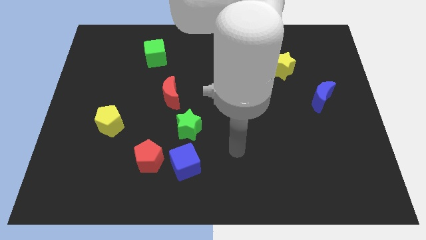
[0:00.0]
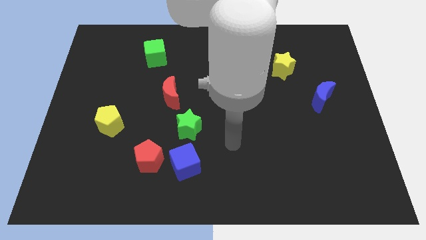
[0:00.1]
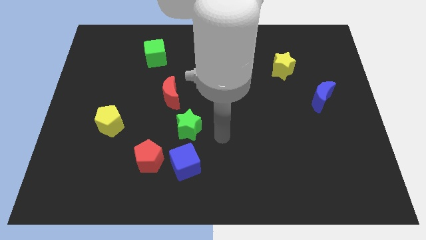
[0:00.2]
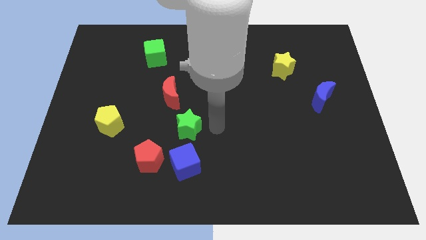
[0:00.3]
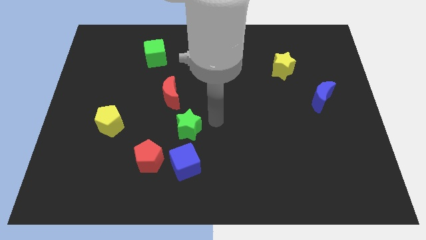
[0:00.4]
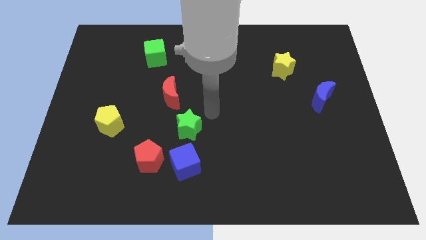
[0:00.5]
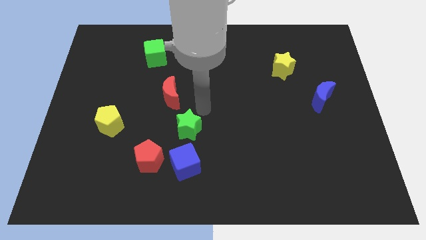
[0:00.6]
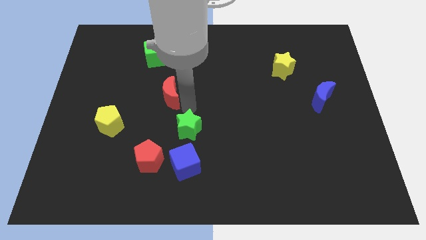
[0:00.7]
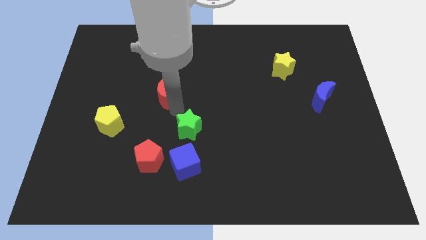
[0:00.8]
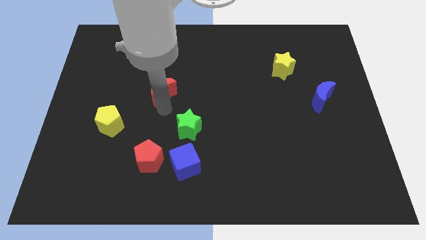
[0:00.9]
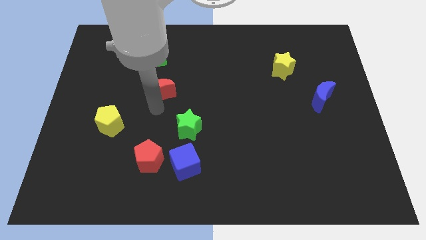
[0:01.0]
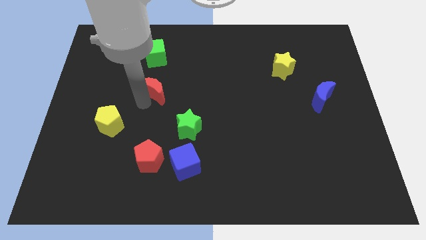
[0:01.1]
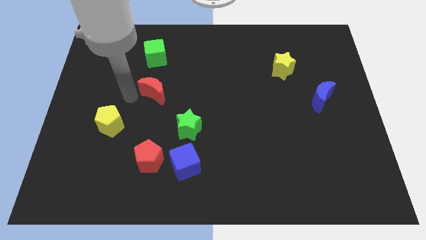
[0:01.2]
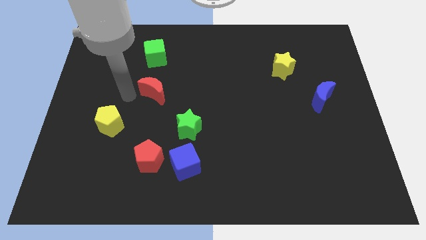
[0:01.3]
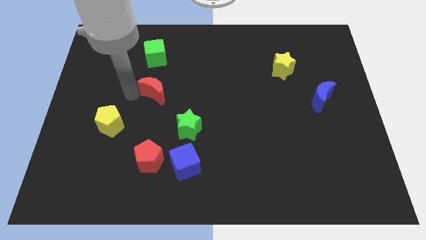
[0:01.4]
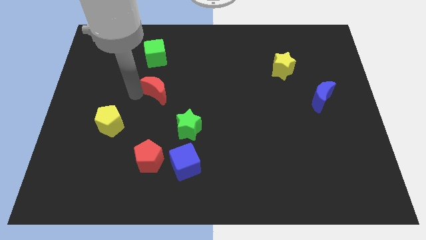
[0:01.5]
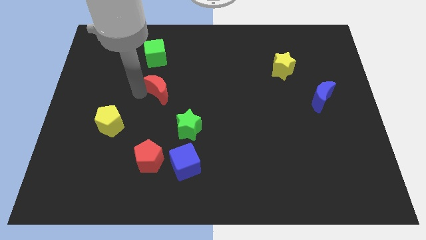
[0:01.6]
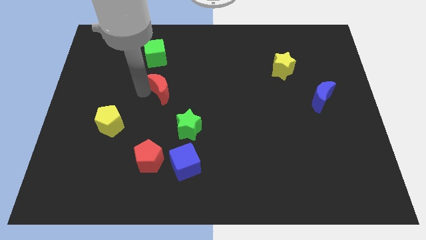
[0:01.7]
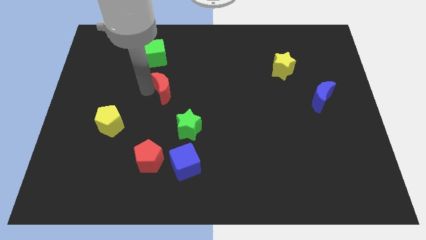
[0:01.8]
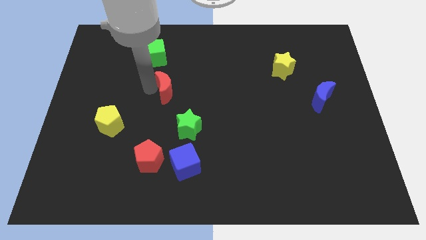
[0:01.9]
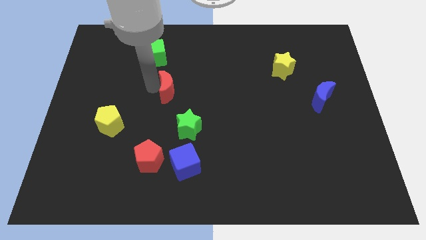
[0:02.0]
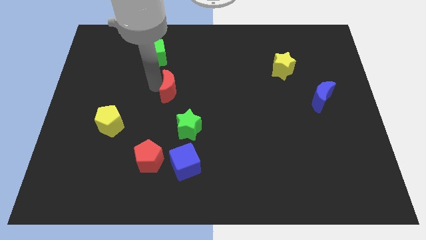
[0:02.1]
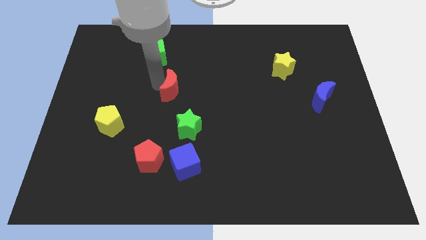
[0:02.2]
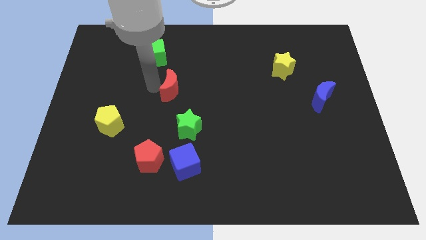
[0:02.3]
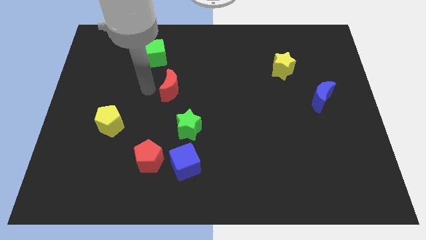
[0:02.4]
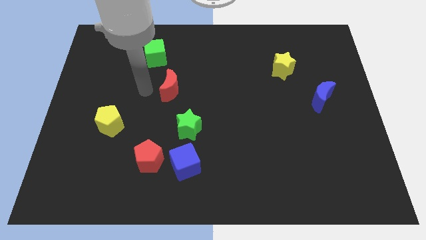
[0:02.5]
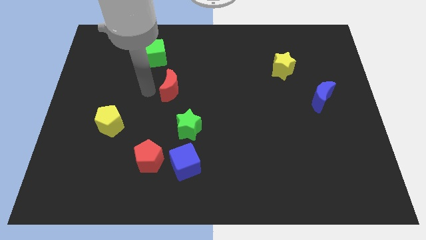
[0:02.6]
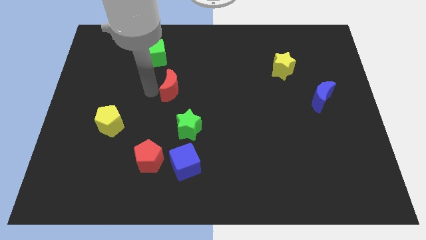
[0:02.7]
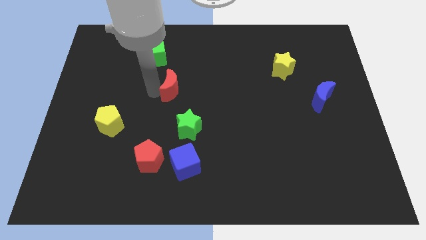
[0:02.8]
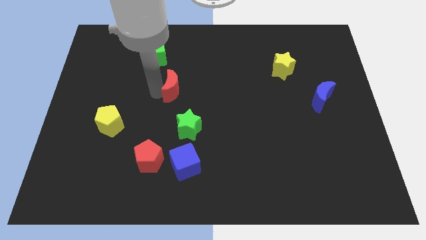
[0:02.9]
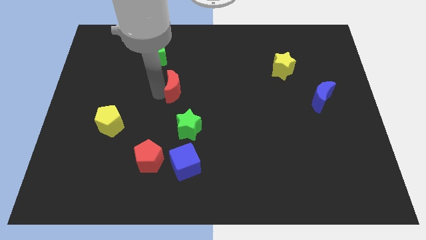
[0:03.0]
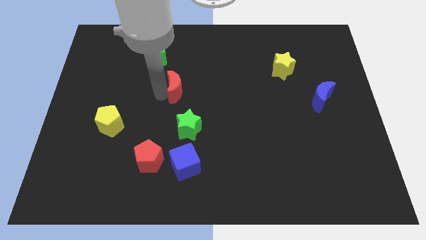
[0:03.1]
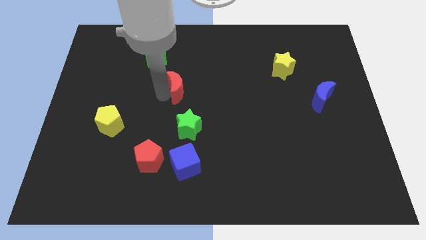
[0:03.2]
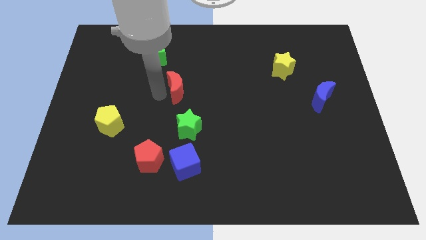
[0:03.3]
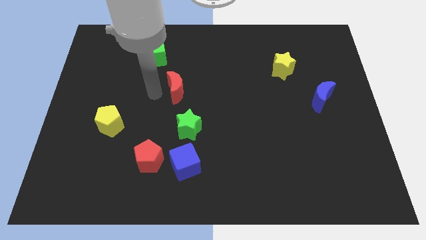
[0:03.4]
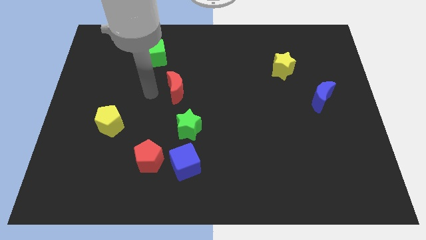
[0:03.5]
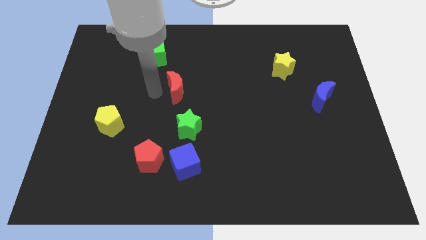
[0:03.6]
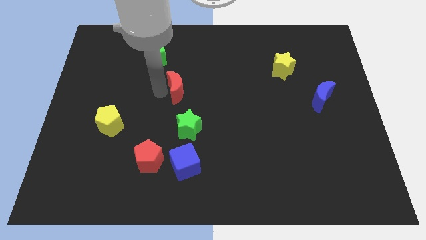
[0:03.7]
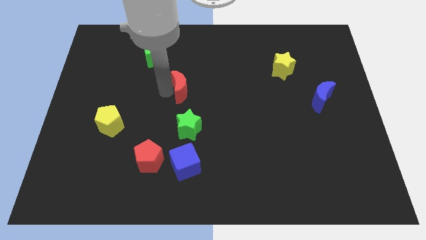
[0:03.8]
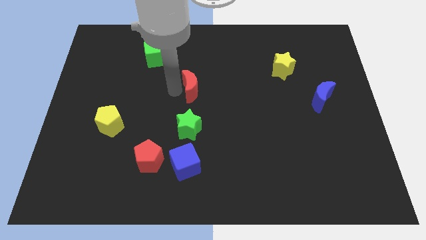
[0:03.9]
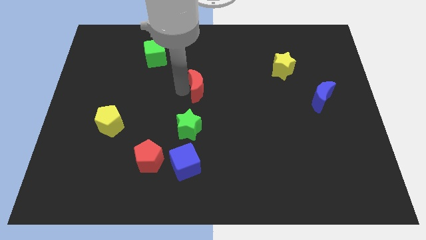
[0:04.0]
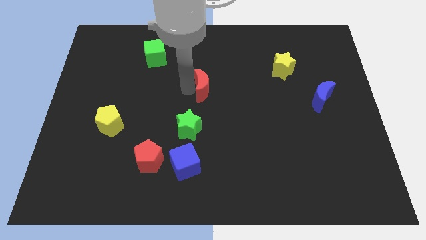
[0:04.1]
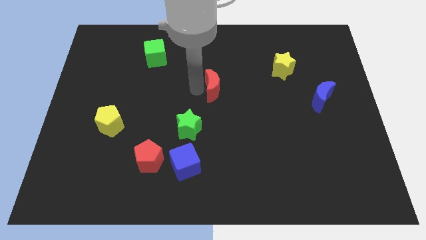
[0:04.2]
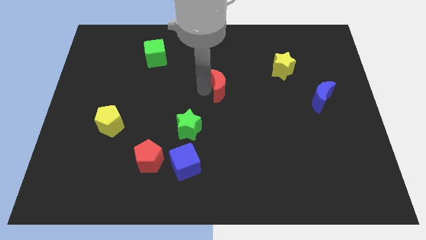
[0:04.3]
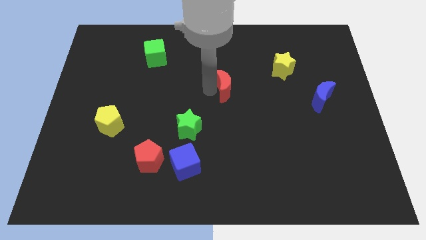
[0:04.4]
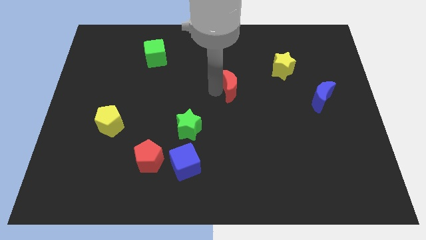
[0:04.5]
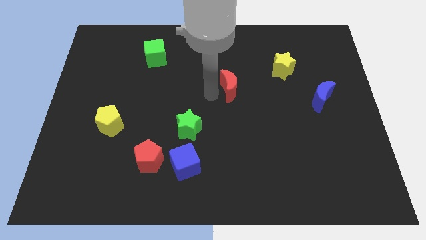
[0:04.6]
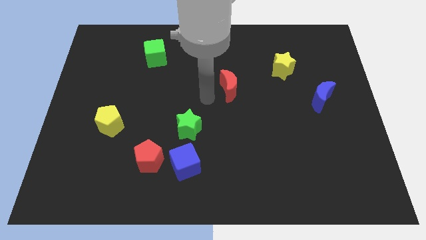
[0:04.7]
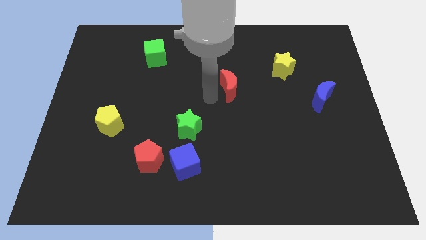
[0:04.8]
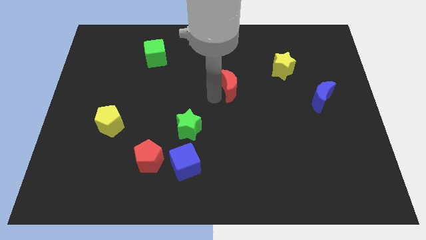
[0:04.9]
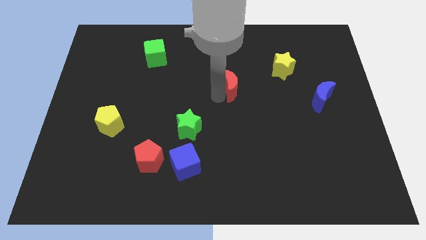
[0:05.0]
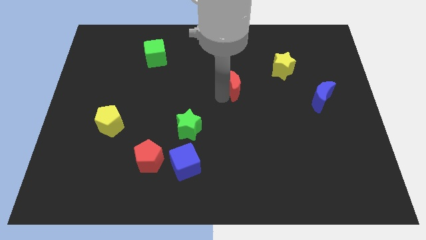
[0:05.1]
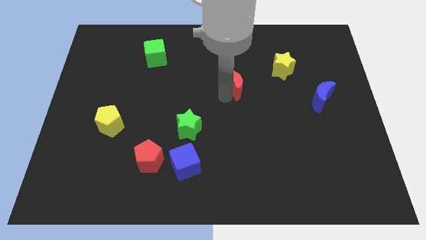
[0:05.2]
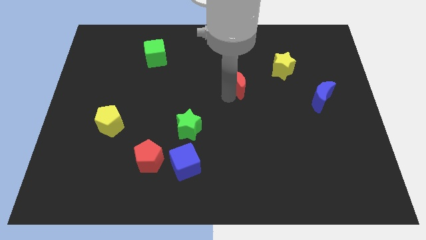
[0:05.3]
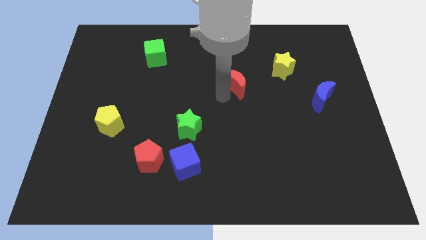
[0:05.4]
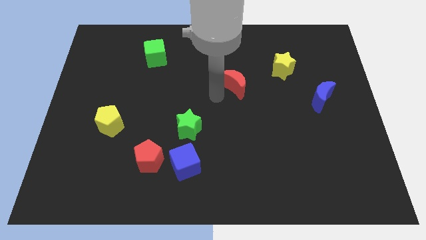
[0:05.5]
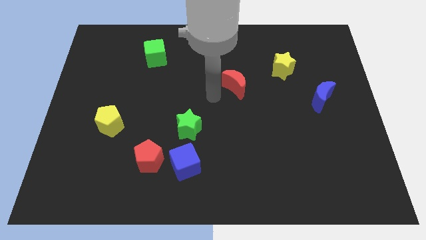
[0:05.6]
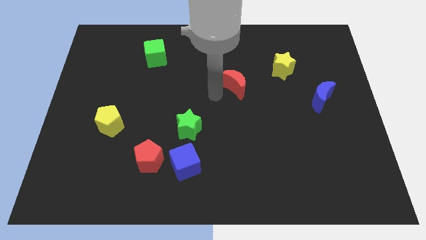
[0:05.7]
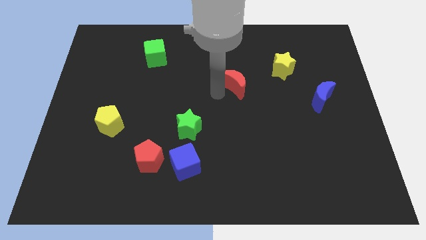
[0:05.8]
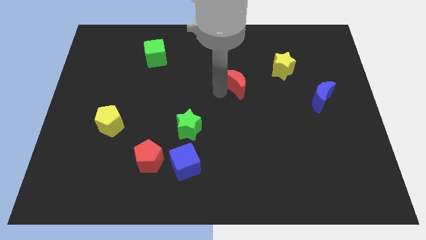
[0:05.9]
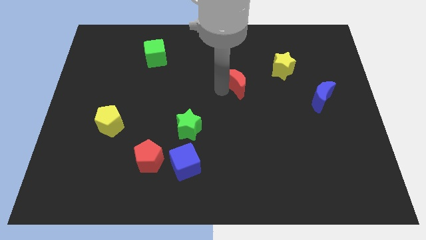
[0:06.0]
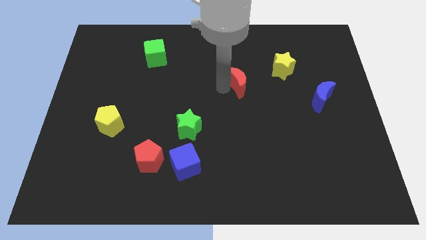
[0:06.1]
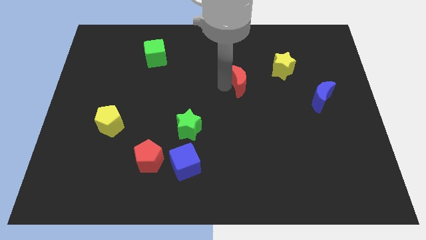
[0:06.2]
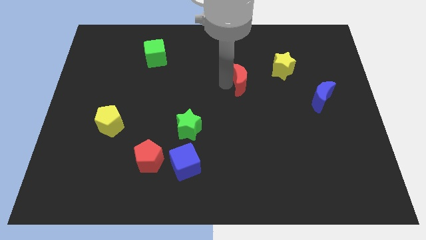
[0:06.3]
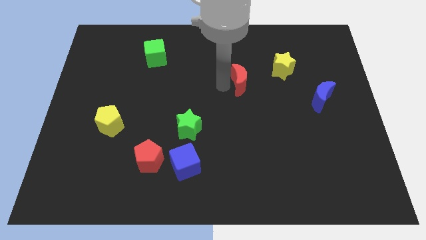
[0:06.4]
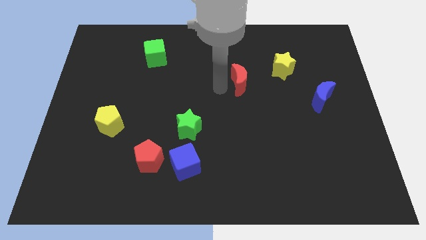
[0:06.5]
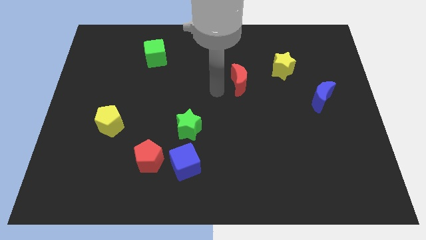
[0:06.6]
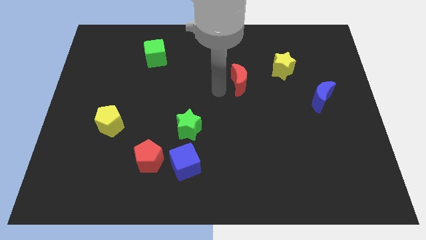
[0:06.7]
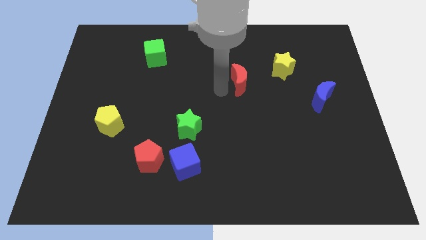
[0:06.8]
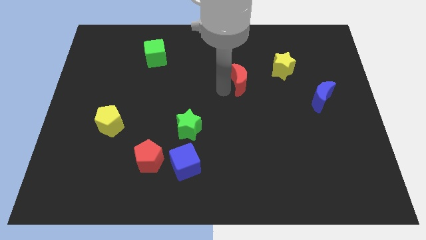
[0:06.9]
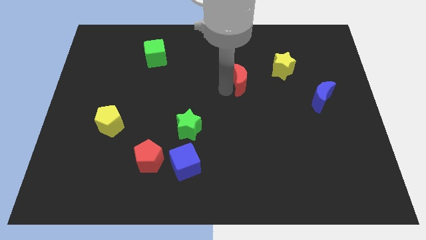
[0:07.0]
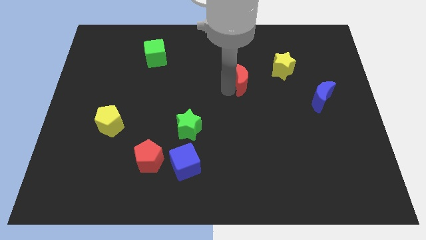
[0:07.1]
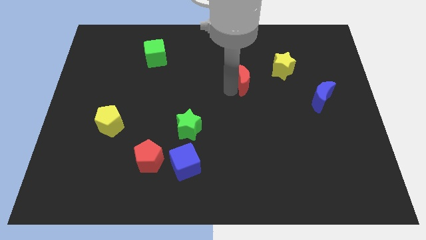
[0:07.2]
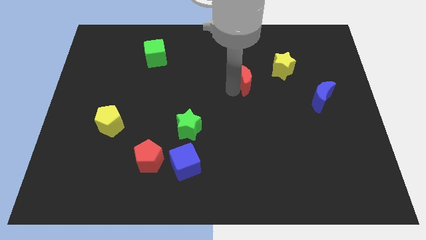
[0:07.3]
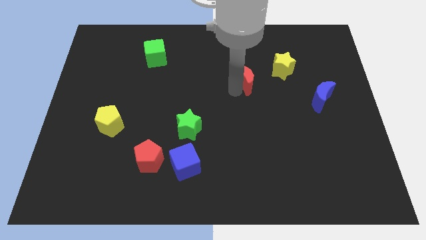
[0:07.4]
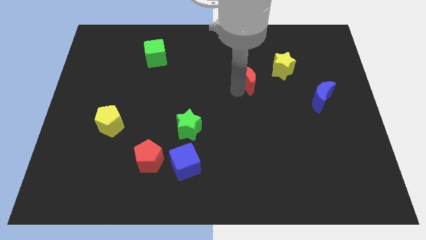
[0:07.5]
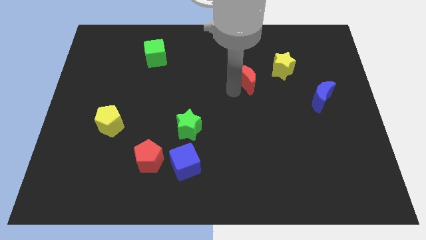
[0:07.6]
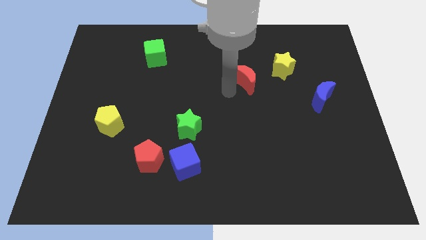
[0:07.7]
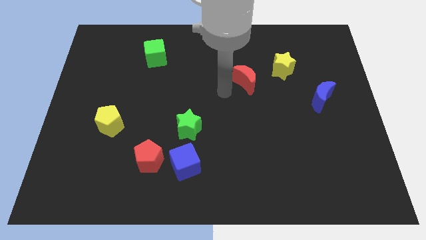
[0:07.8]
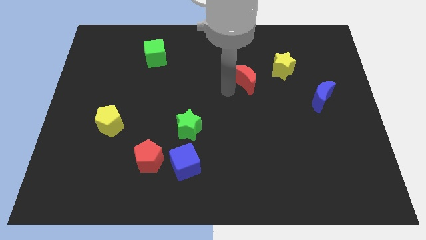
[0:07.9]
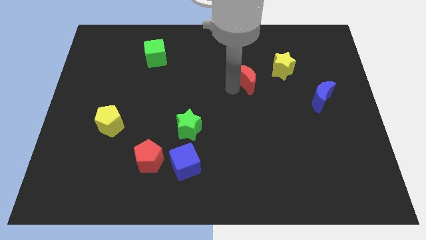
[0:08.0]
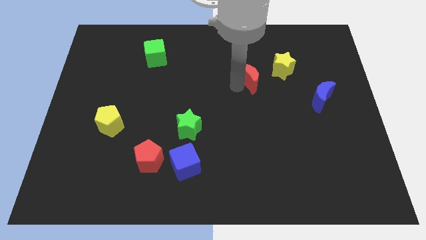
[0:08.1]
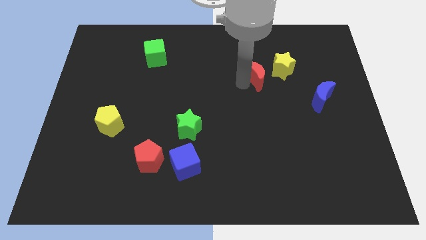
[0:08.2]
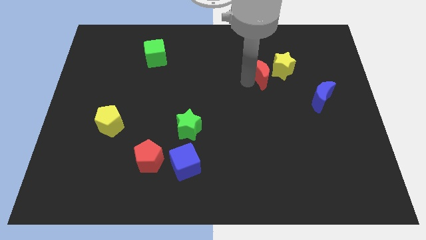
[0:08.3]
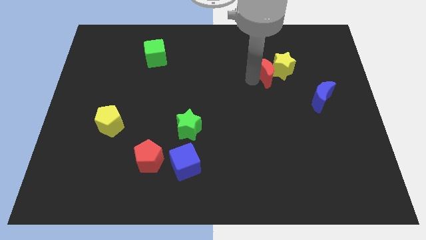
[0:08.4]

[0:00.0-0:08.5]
push the red moon next to the yellow star
